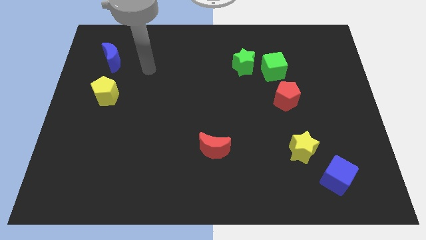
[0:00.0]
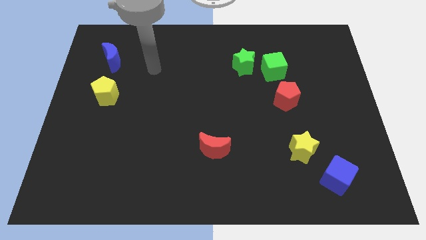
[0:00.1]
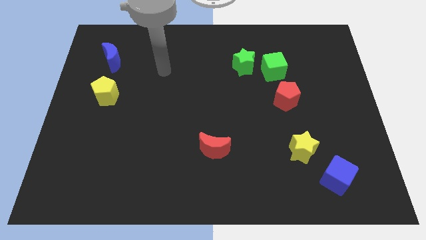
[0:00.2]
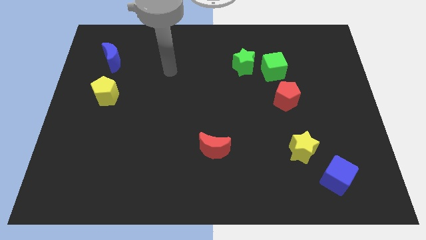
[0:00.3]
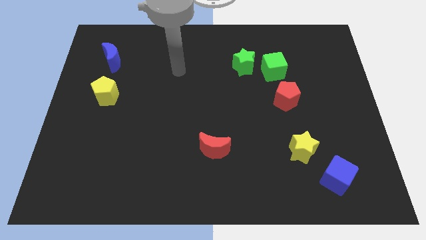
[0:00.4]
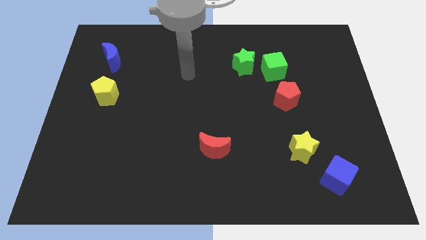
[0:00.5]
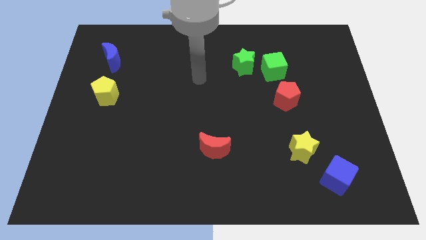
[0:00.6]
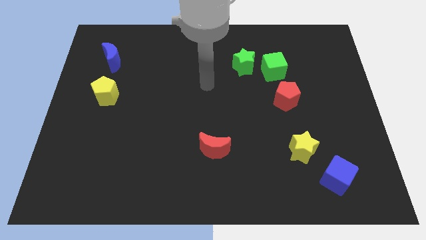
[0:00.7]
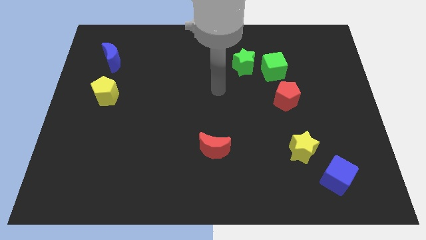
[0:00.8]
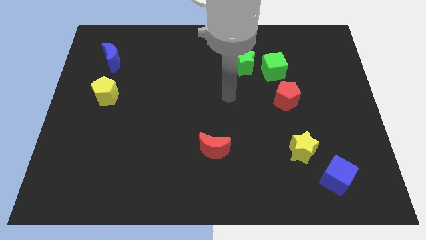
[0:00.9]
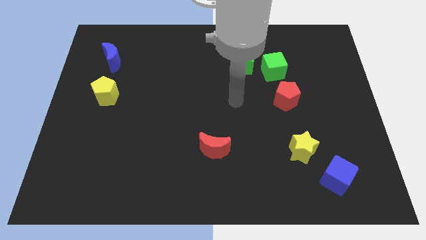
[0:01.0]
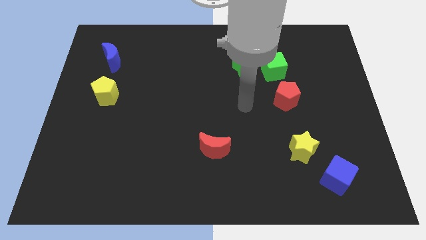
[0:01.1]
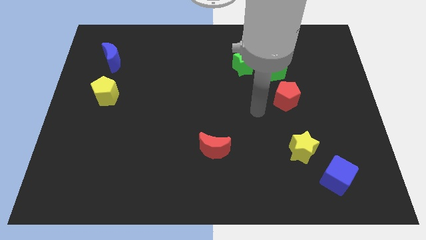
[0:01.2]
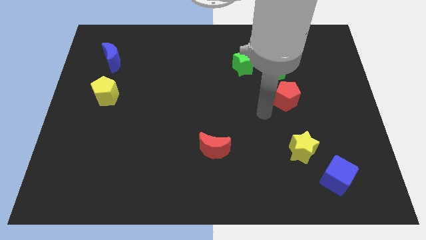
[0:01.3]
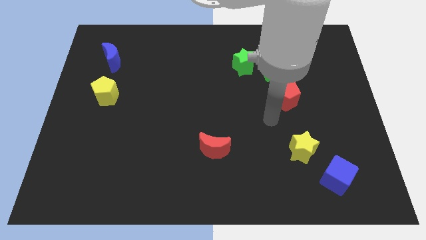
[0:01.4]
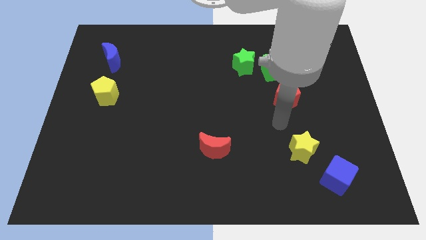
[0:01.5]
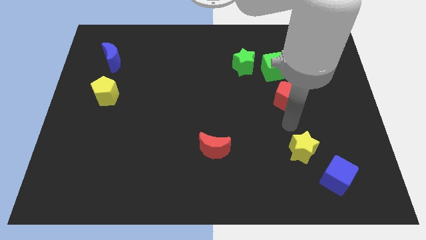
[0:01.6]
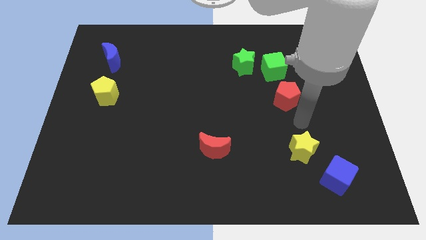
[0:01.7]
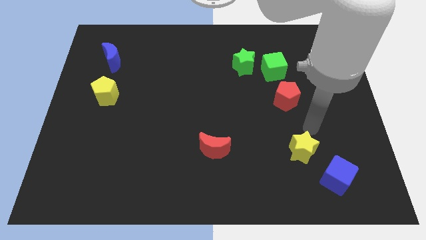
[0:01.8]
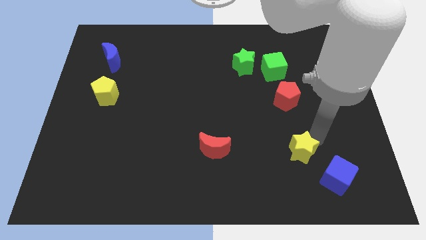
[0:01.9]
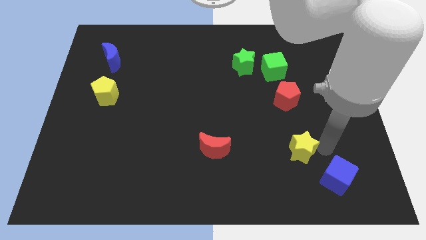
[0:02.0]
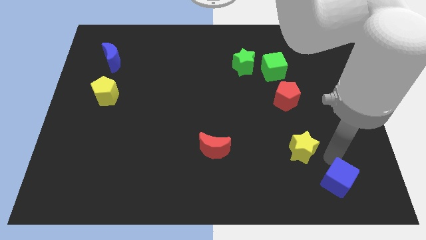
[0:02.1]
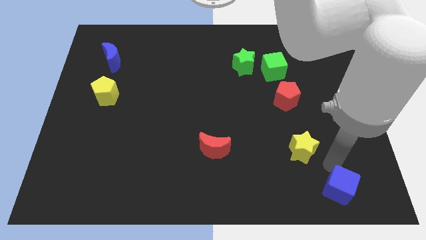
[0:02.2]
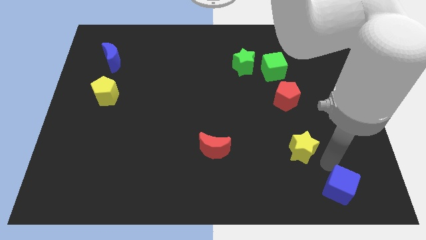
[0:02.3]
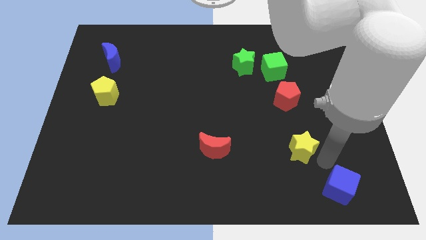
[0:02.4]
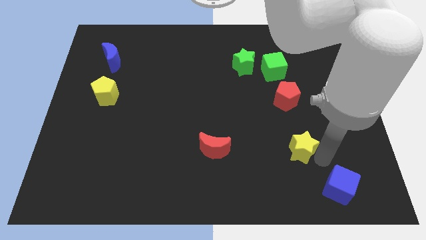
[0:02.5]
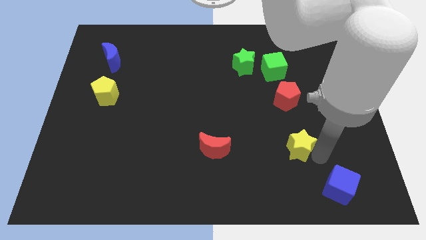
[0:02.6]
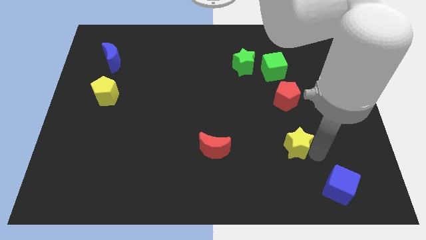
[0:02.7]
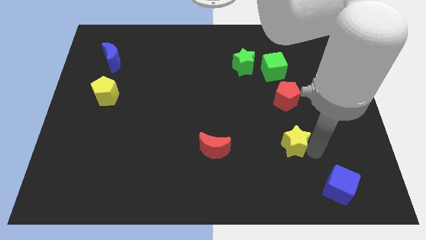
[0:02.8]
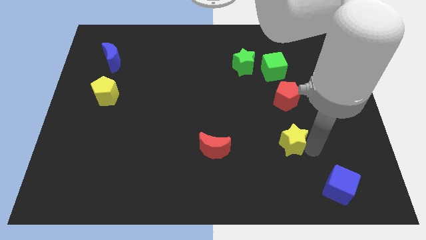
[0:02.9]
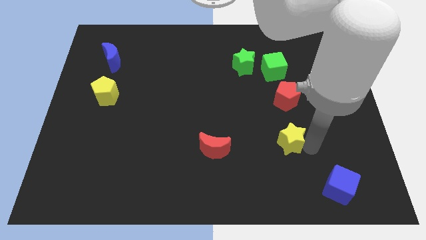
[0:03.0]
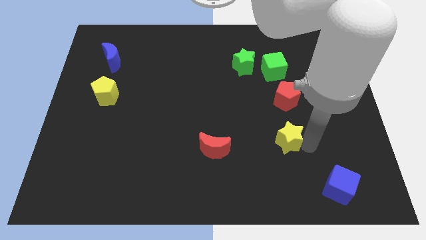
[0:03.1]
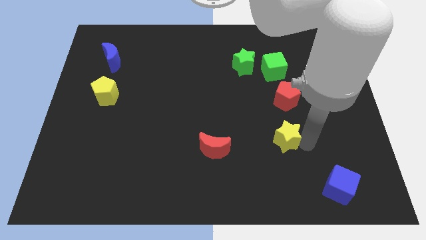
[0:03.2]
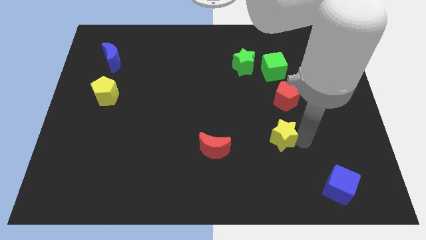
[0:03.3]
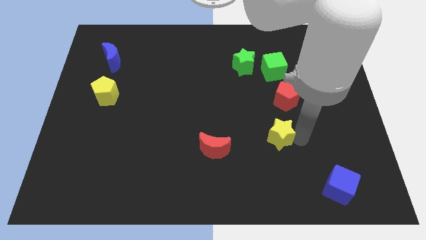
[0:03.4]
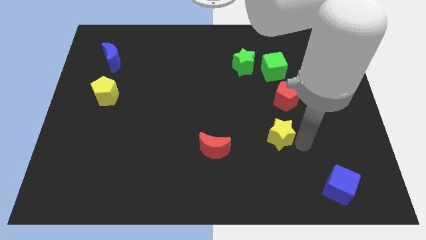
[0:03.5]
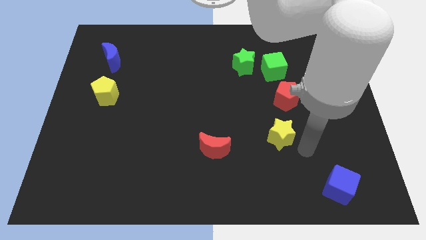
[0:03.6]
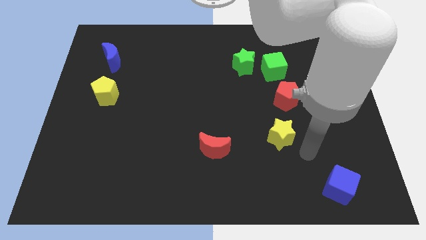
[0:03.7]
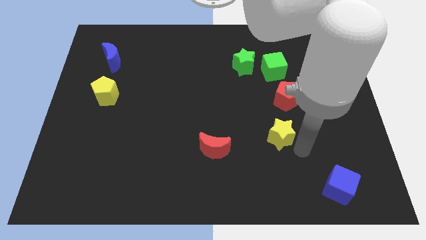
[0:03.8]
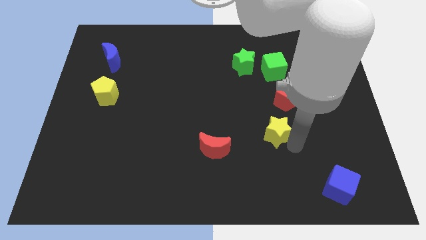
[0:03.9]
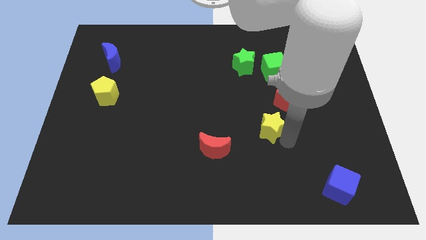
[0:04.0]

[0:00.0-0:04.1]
slide the yellow star slightly diagonally up and left

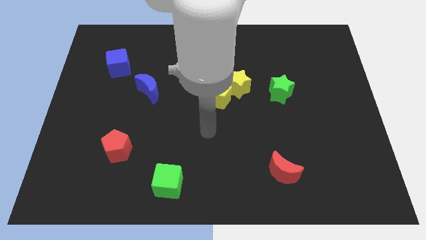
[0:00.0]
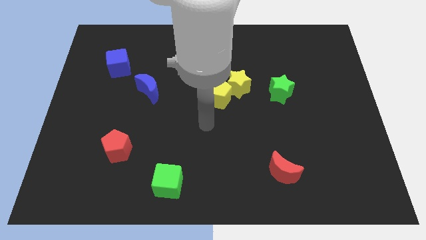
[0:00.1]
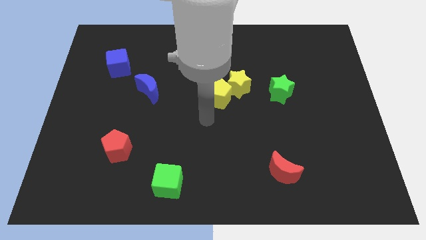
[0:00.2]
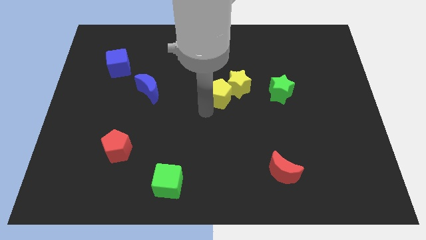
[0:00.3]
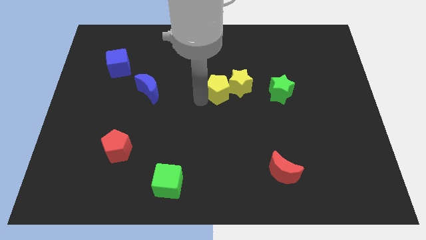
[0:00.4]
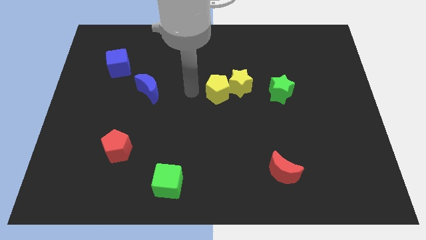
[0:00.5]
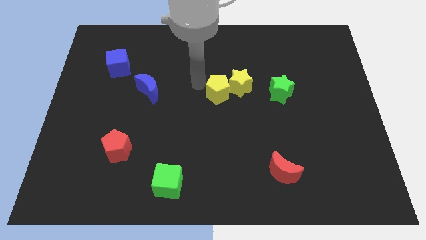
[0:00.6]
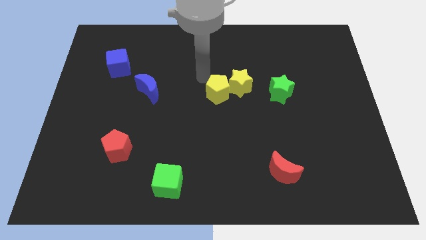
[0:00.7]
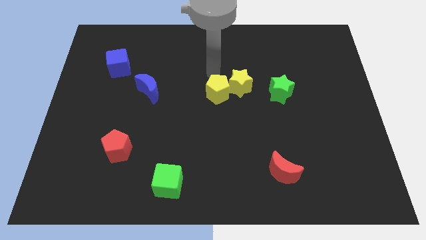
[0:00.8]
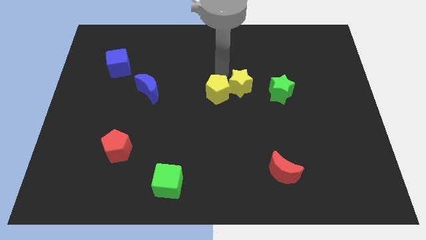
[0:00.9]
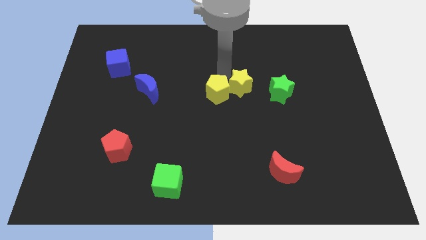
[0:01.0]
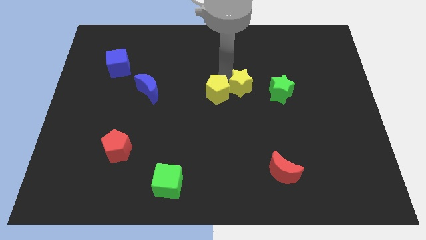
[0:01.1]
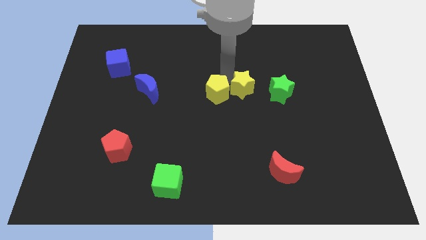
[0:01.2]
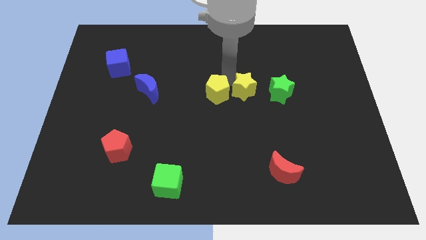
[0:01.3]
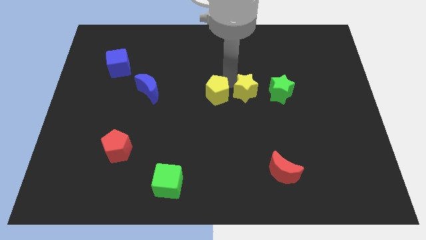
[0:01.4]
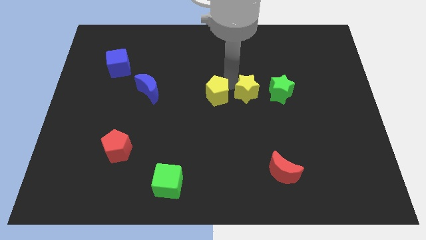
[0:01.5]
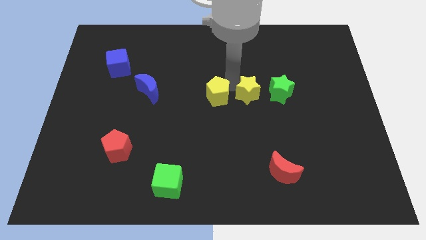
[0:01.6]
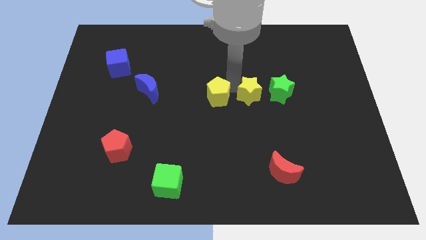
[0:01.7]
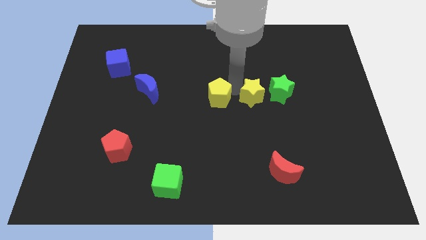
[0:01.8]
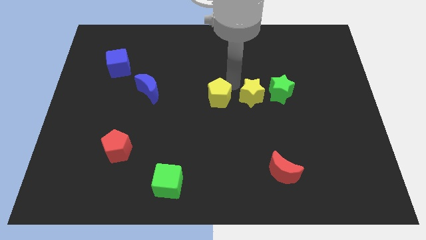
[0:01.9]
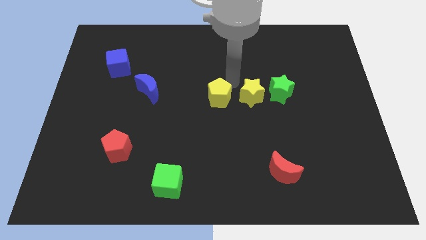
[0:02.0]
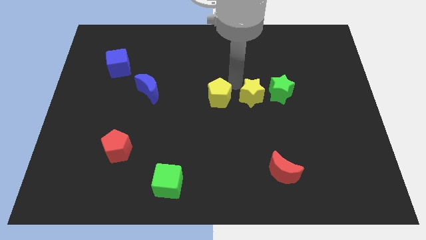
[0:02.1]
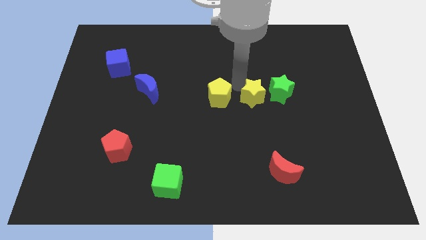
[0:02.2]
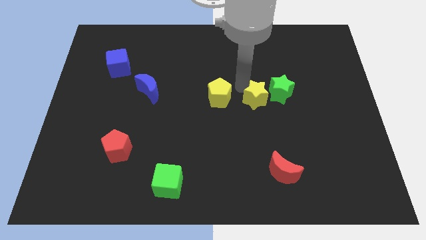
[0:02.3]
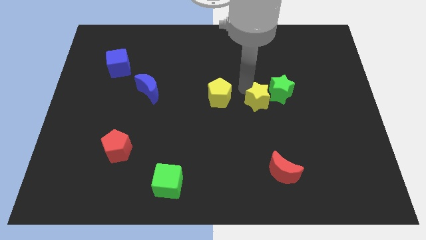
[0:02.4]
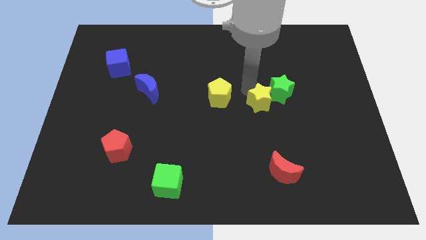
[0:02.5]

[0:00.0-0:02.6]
push the yellow star a little bit down and then to the right

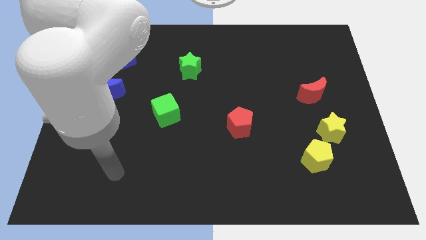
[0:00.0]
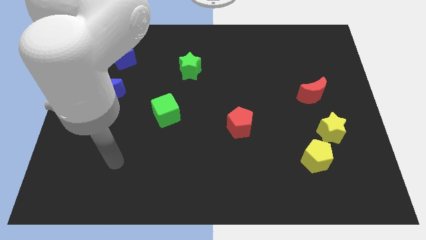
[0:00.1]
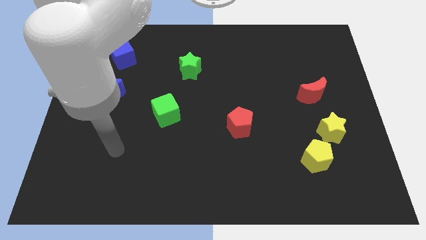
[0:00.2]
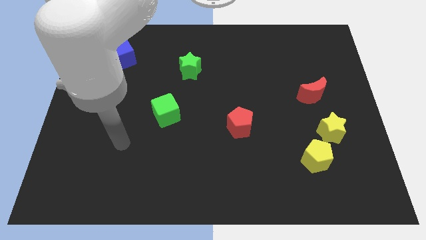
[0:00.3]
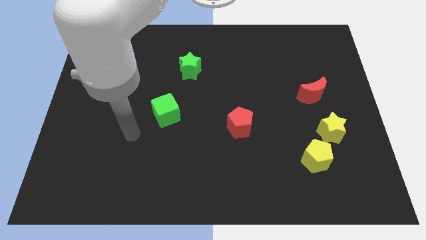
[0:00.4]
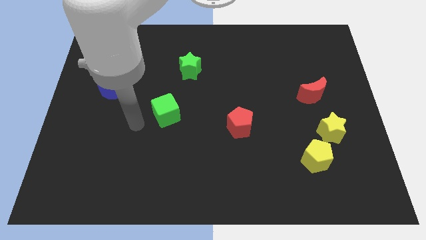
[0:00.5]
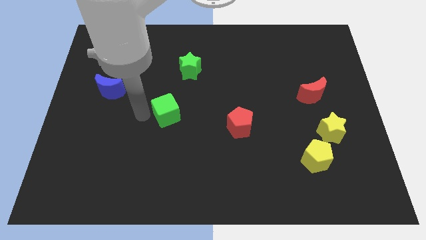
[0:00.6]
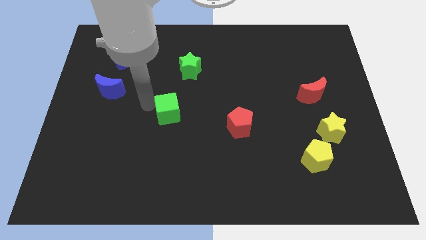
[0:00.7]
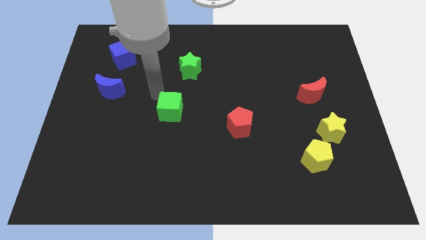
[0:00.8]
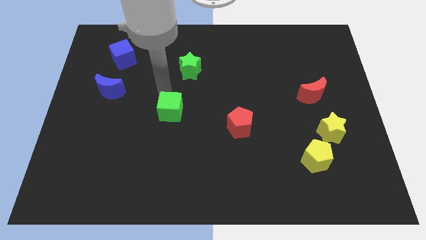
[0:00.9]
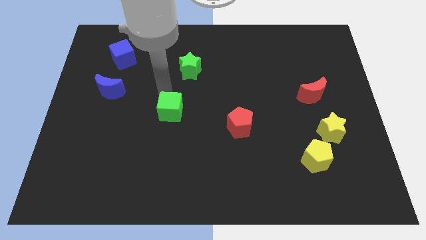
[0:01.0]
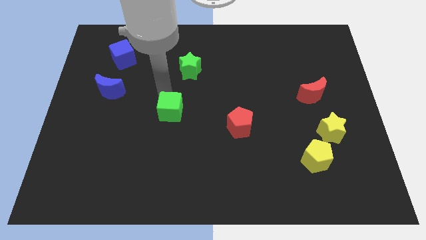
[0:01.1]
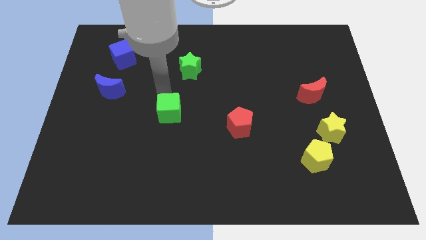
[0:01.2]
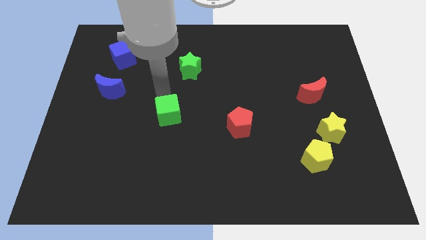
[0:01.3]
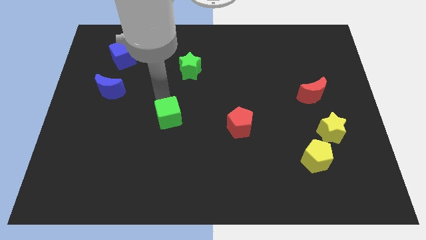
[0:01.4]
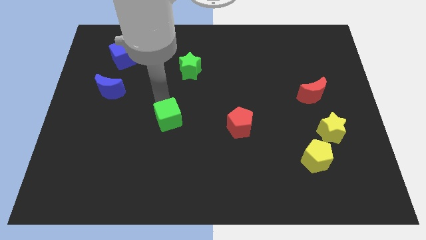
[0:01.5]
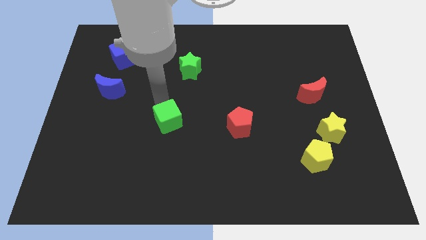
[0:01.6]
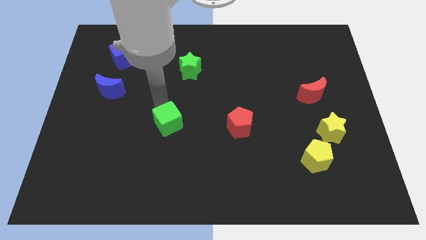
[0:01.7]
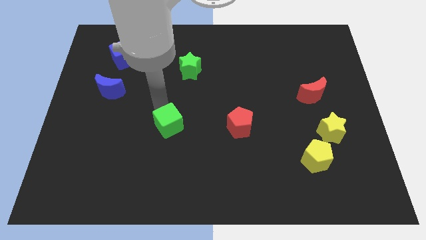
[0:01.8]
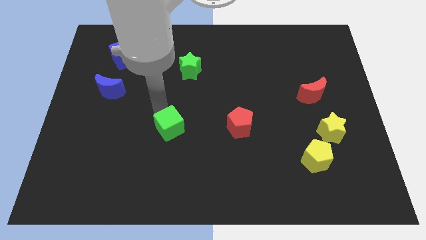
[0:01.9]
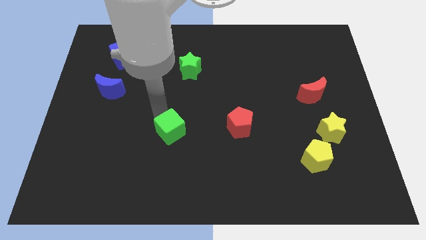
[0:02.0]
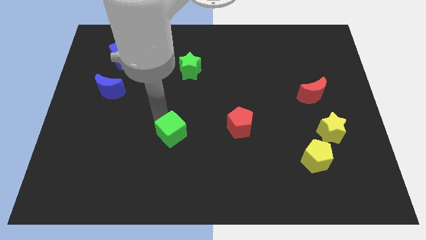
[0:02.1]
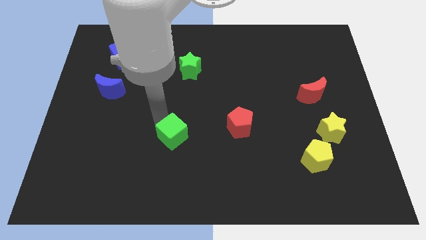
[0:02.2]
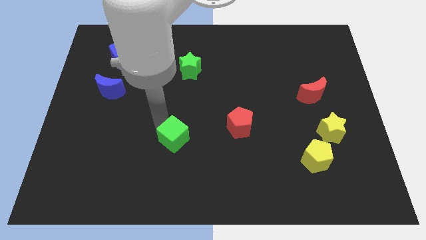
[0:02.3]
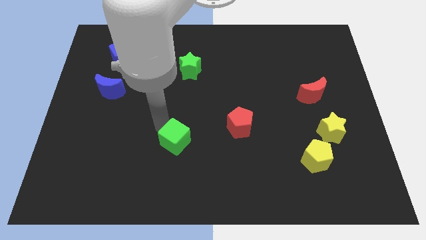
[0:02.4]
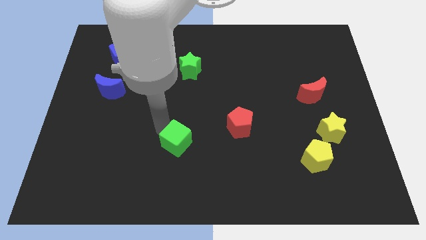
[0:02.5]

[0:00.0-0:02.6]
move the green cube downwards and right diagonally a little bit
